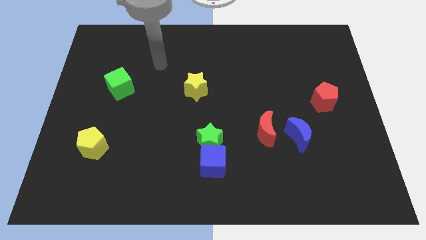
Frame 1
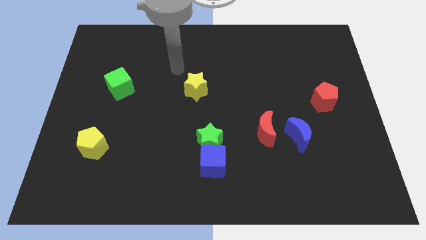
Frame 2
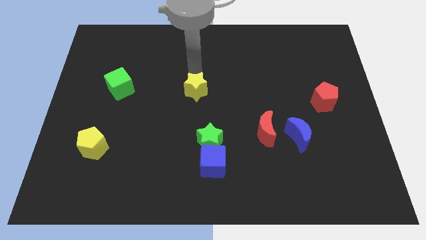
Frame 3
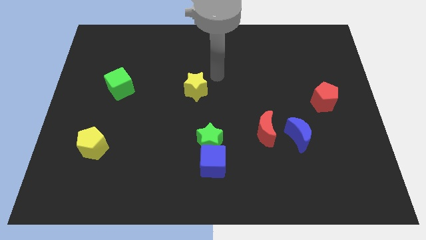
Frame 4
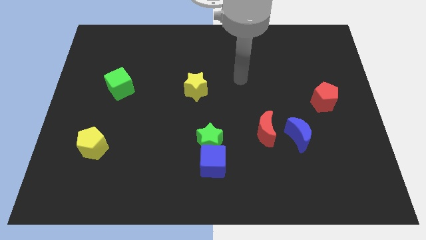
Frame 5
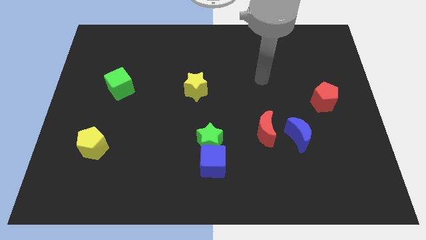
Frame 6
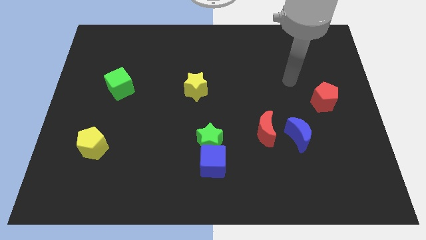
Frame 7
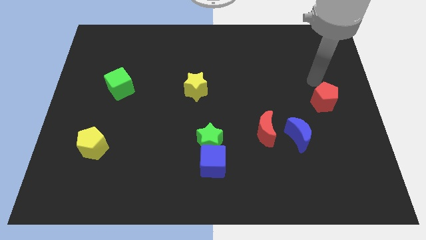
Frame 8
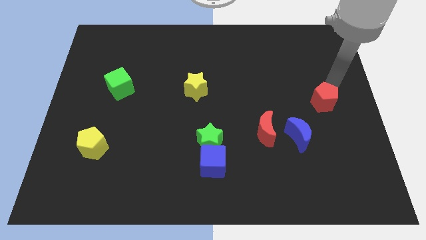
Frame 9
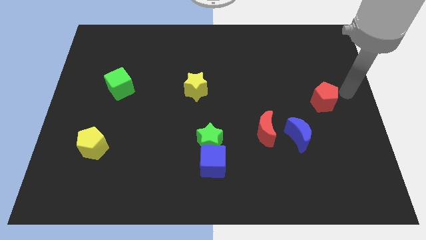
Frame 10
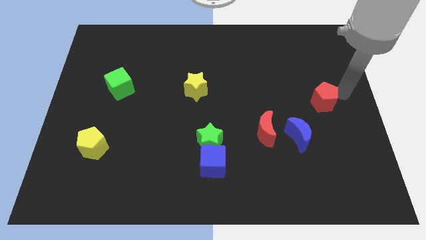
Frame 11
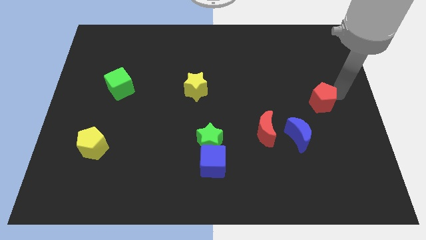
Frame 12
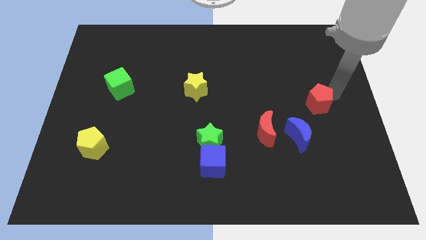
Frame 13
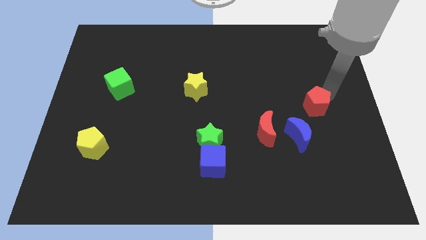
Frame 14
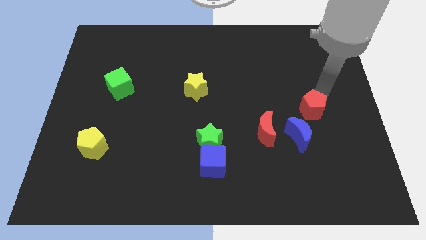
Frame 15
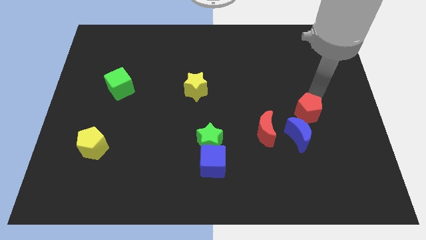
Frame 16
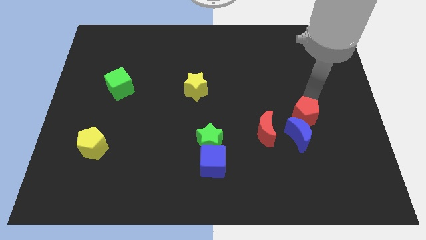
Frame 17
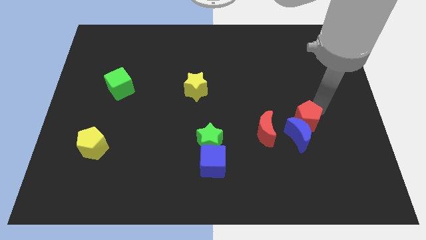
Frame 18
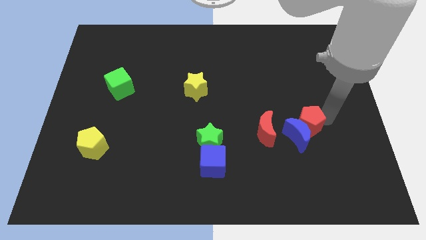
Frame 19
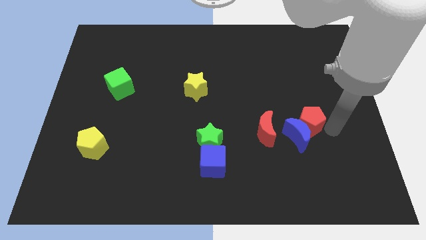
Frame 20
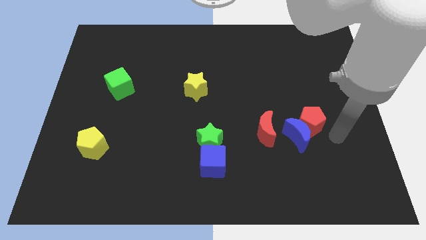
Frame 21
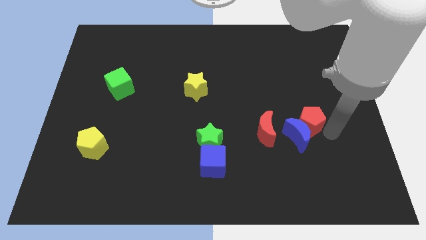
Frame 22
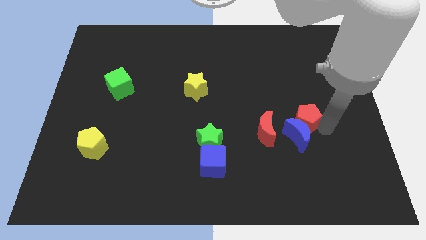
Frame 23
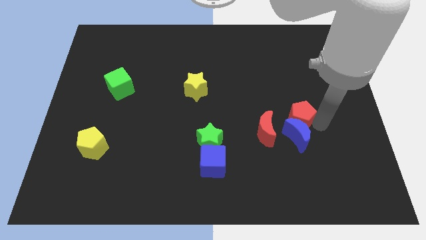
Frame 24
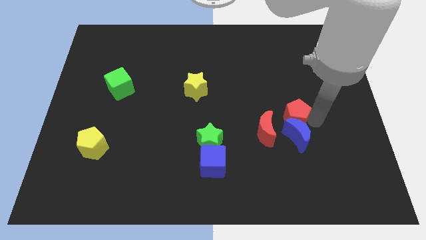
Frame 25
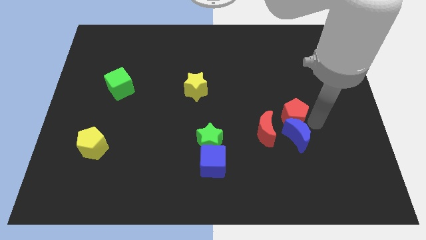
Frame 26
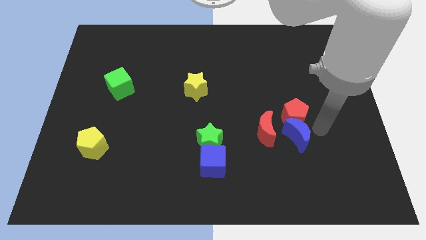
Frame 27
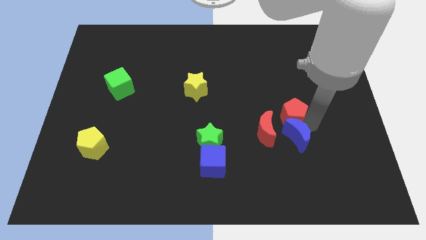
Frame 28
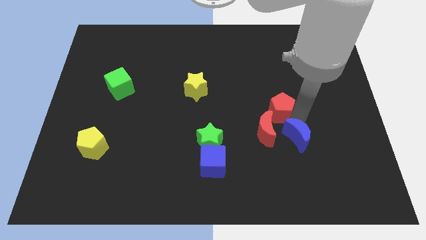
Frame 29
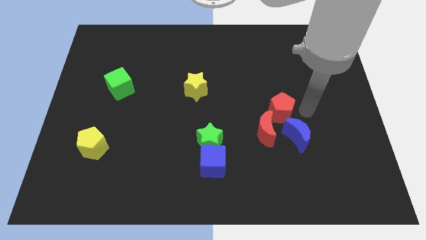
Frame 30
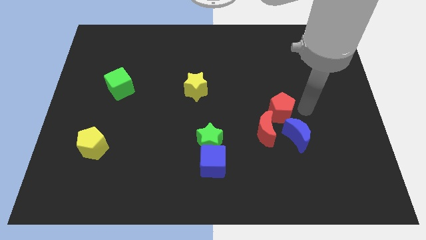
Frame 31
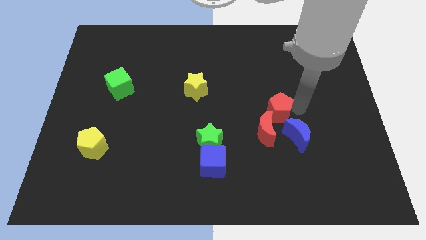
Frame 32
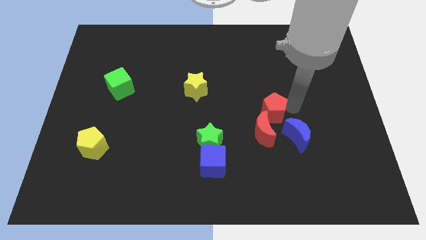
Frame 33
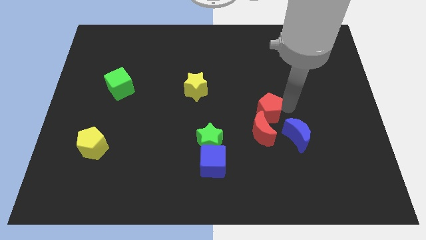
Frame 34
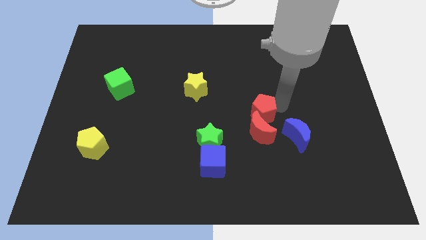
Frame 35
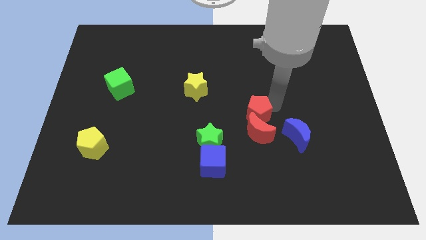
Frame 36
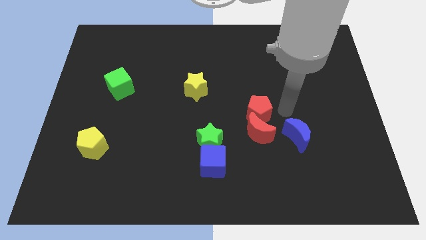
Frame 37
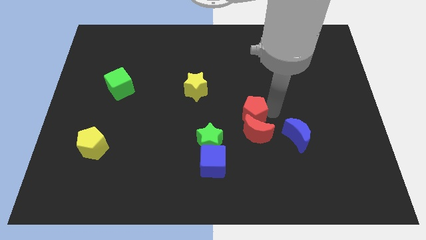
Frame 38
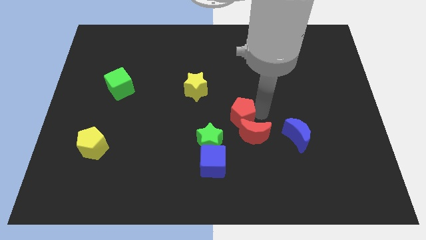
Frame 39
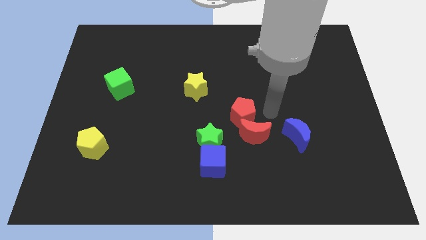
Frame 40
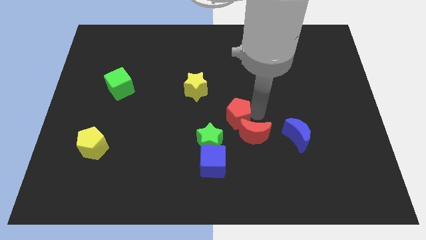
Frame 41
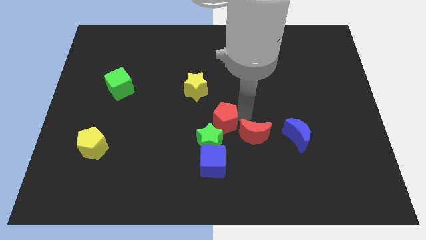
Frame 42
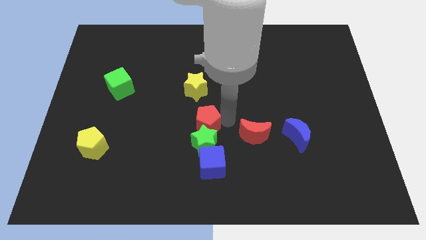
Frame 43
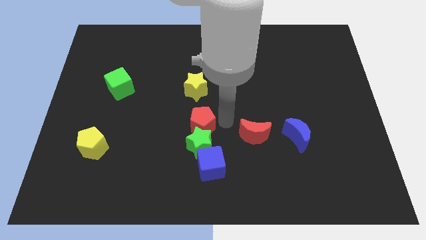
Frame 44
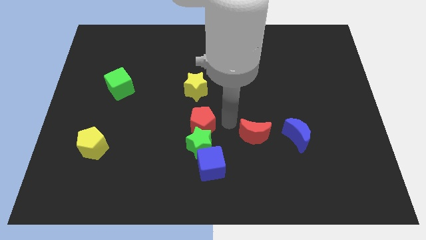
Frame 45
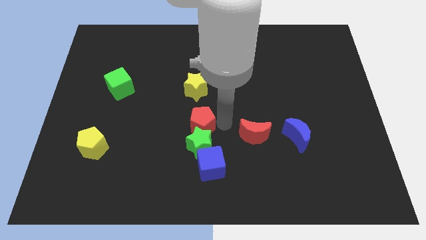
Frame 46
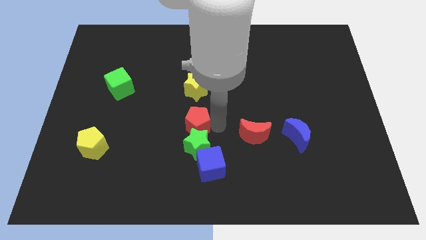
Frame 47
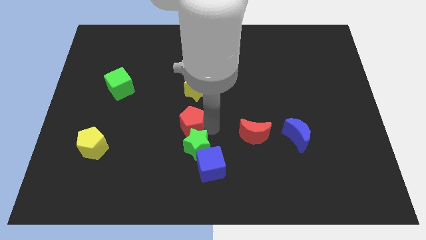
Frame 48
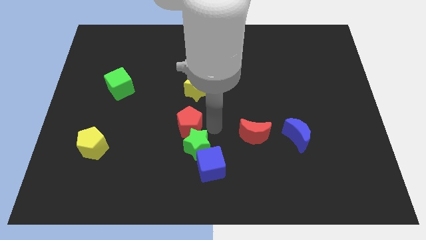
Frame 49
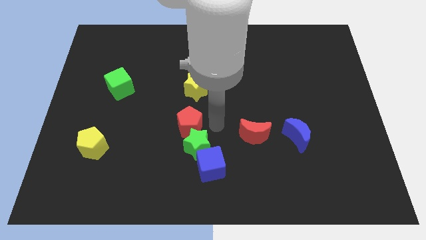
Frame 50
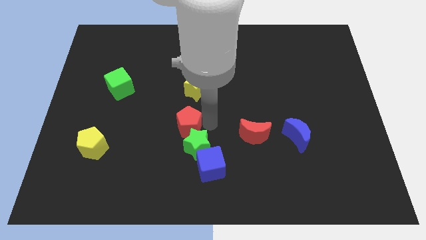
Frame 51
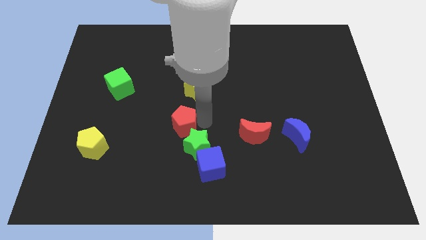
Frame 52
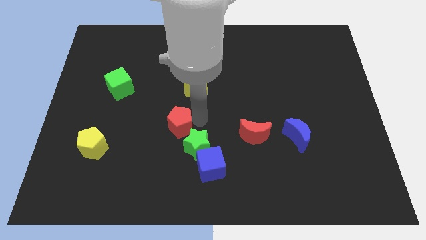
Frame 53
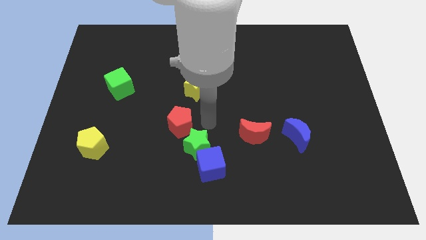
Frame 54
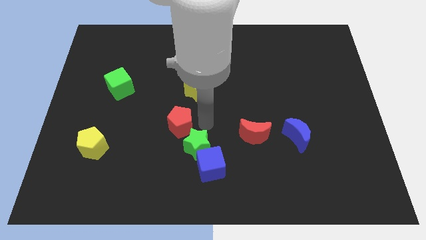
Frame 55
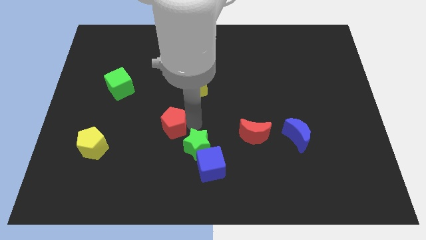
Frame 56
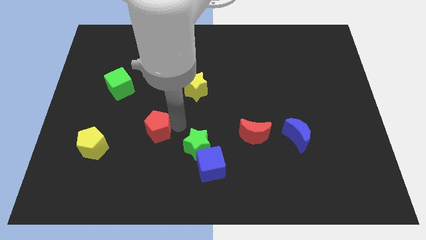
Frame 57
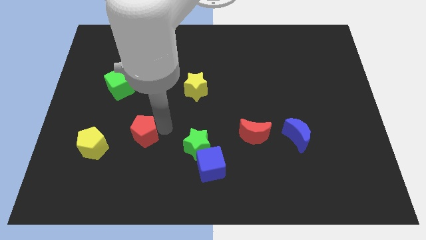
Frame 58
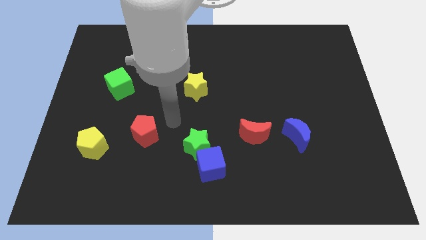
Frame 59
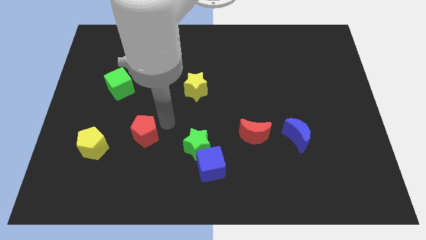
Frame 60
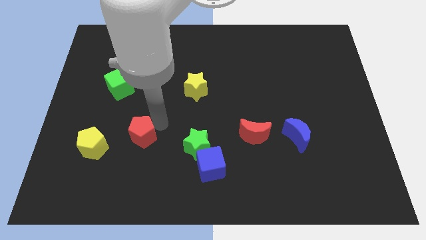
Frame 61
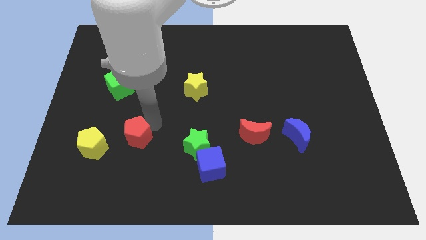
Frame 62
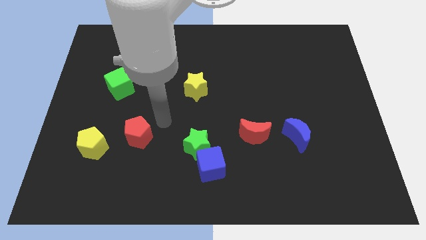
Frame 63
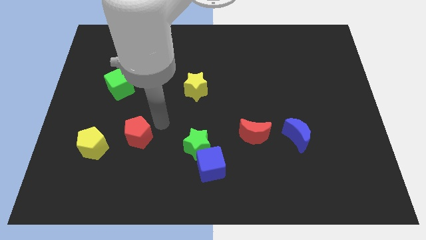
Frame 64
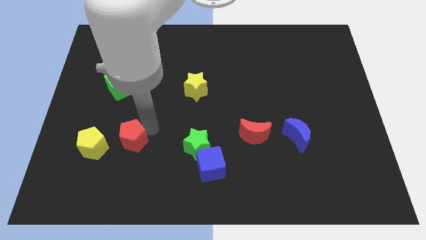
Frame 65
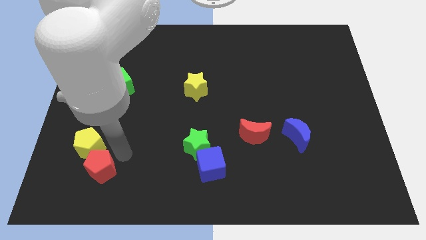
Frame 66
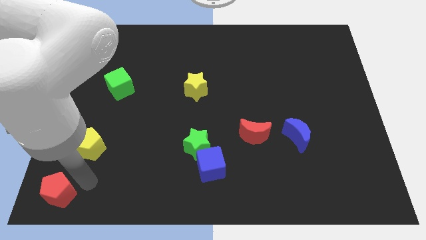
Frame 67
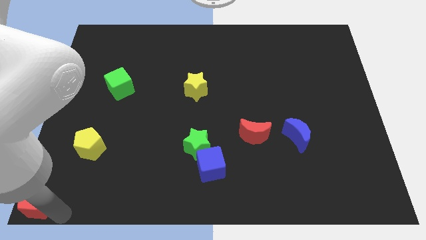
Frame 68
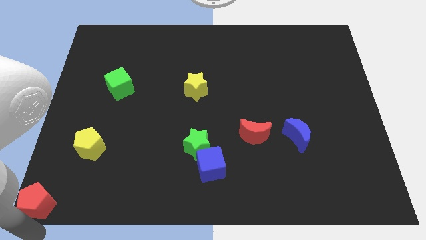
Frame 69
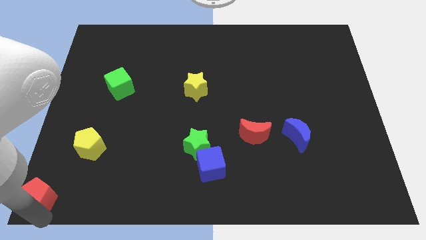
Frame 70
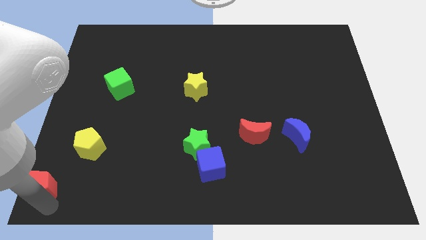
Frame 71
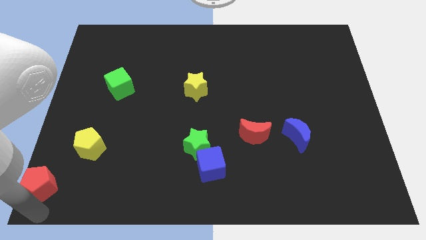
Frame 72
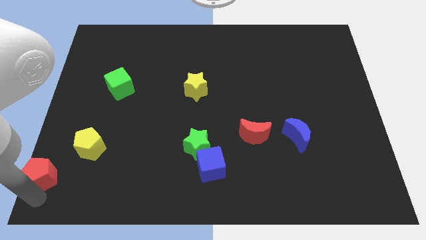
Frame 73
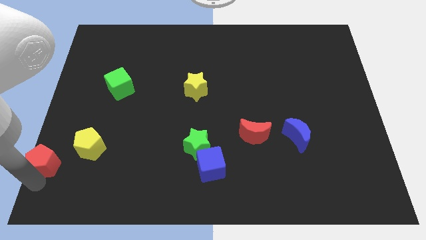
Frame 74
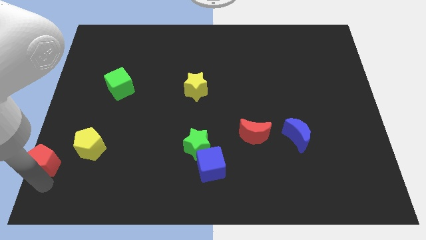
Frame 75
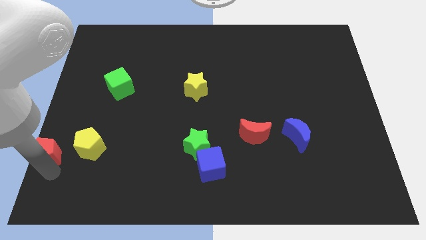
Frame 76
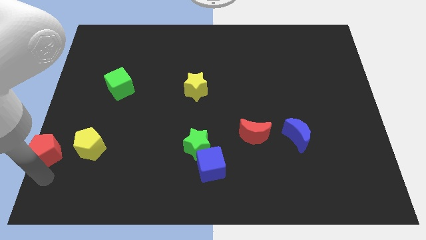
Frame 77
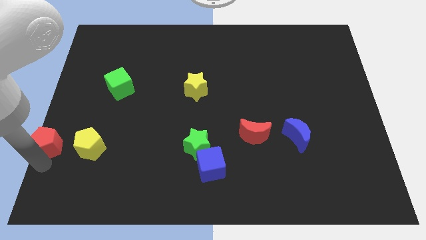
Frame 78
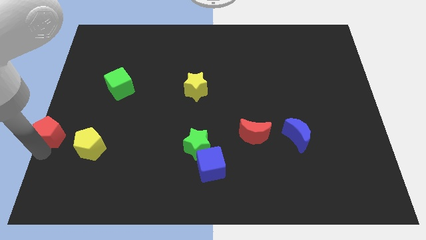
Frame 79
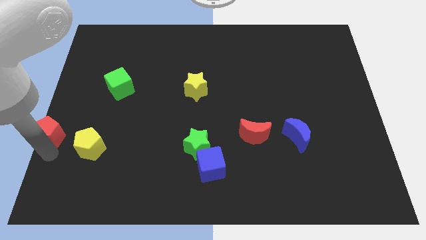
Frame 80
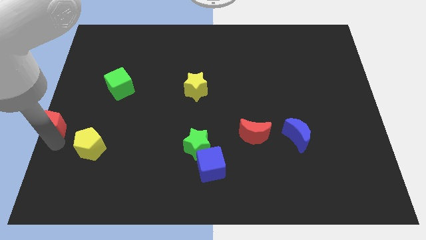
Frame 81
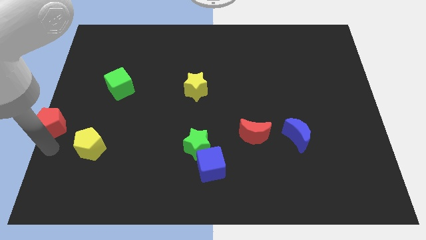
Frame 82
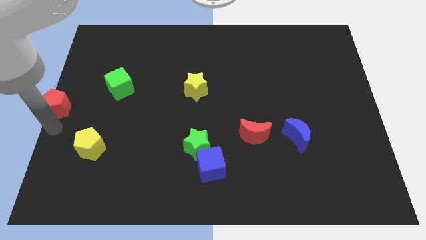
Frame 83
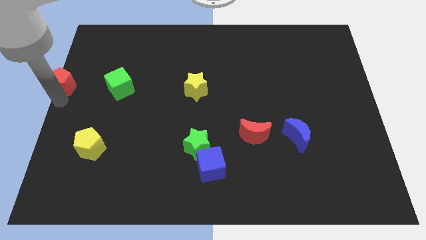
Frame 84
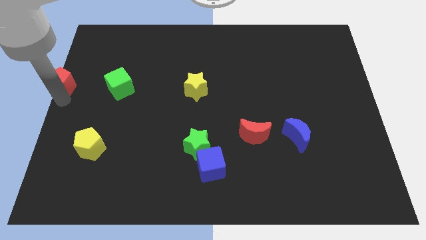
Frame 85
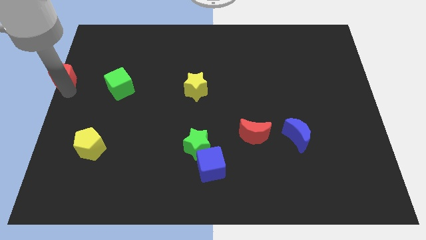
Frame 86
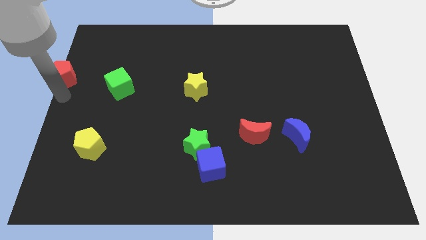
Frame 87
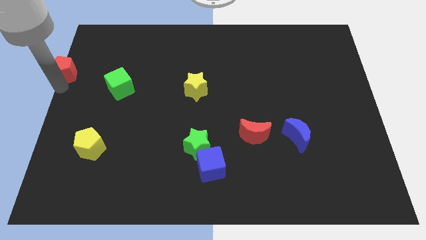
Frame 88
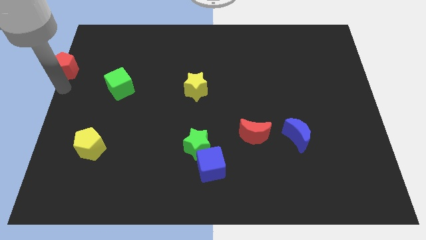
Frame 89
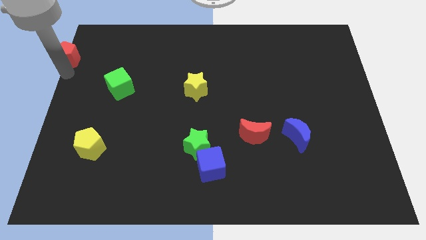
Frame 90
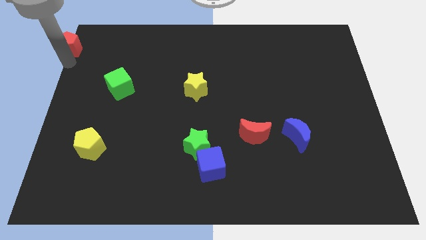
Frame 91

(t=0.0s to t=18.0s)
move the red pentagon to the top left
